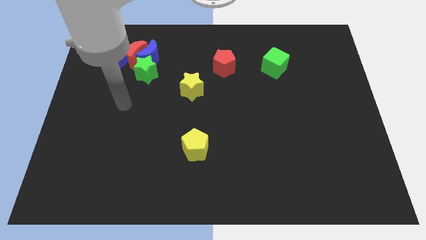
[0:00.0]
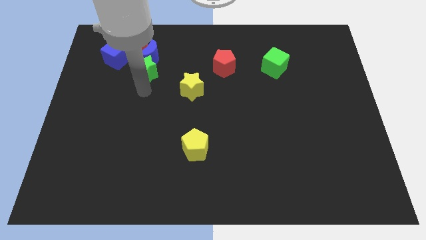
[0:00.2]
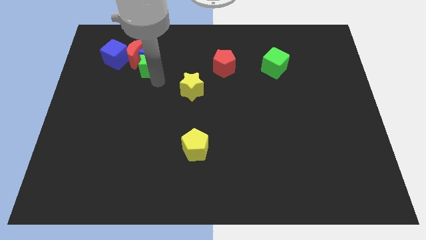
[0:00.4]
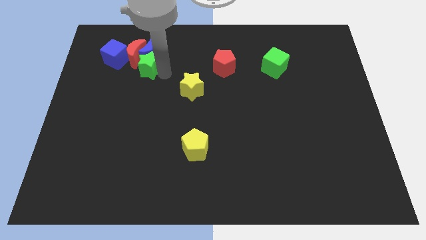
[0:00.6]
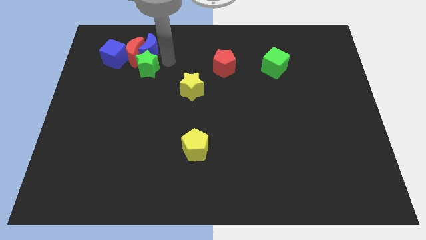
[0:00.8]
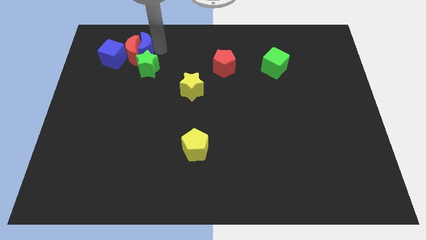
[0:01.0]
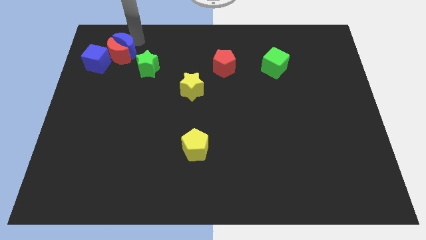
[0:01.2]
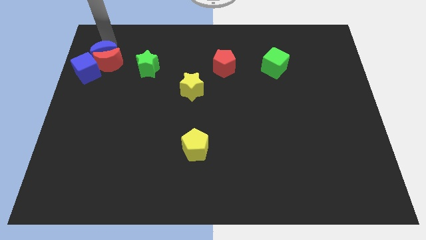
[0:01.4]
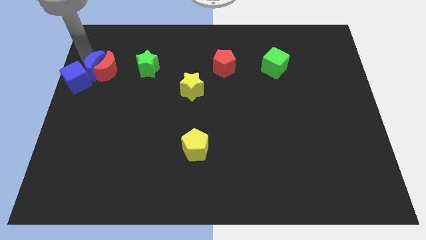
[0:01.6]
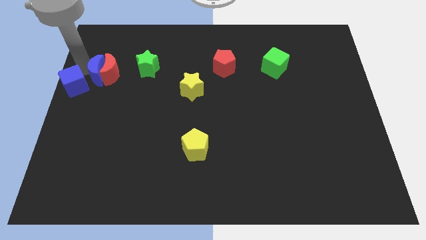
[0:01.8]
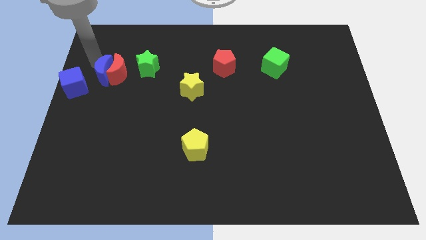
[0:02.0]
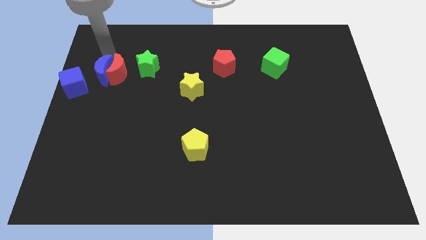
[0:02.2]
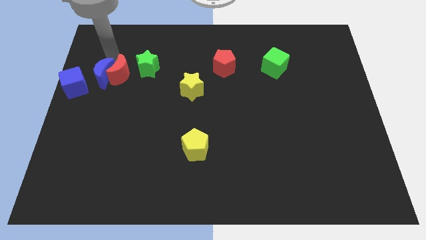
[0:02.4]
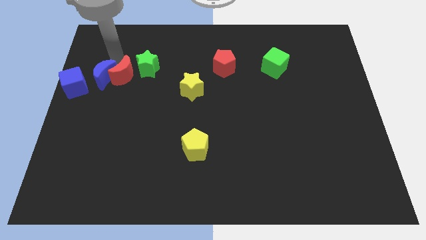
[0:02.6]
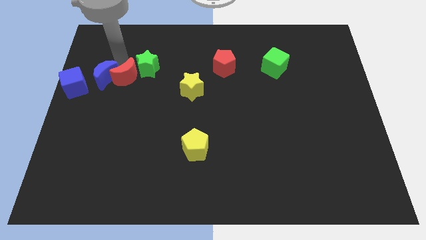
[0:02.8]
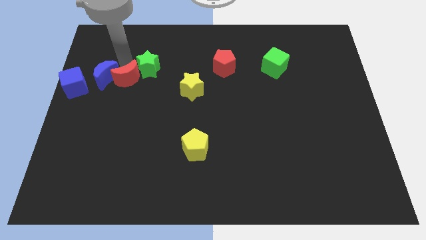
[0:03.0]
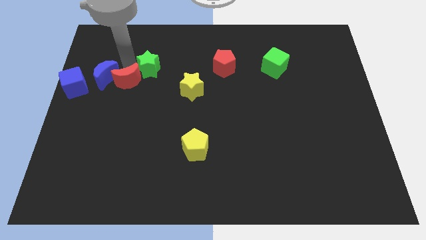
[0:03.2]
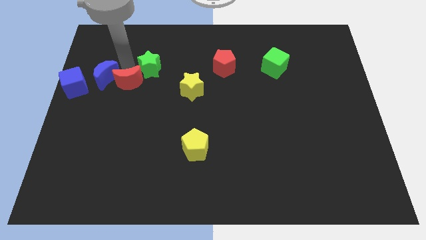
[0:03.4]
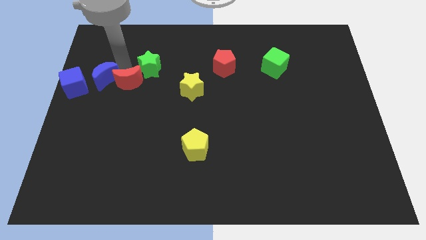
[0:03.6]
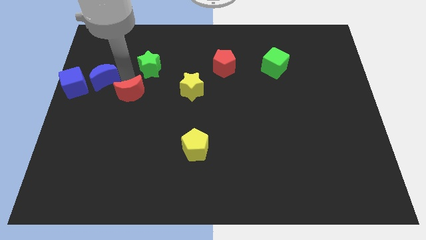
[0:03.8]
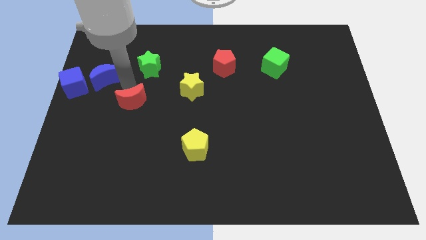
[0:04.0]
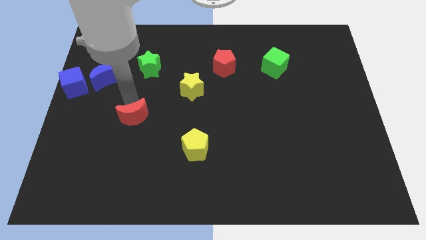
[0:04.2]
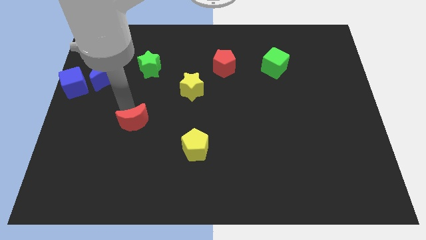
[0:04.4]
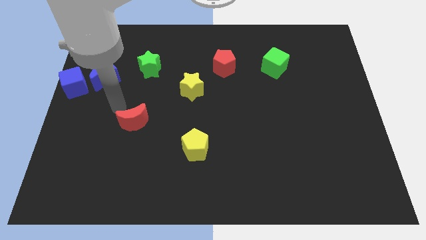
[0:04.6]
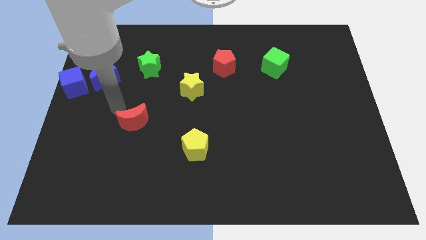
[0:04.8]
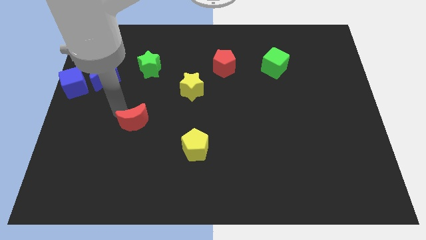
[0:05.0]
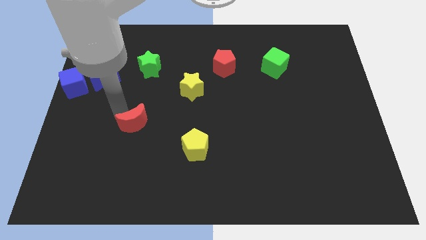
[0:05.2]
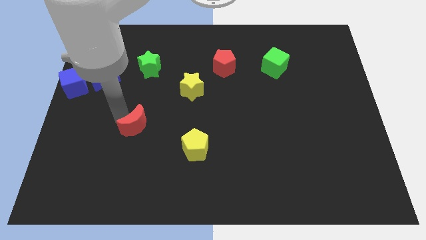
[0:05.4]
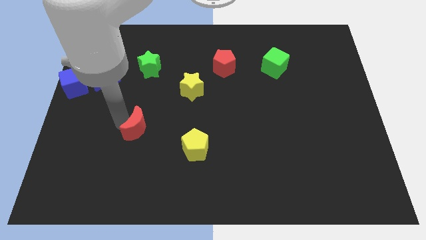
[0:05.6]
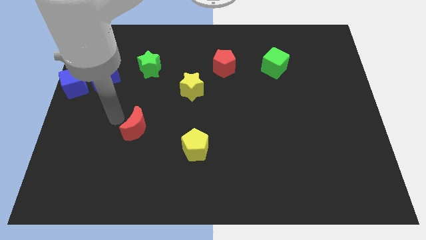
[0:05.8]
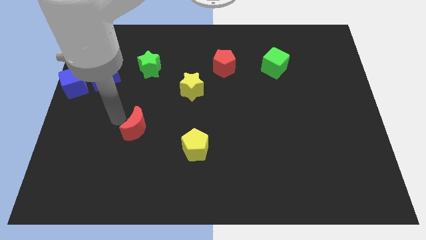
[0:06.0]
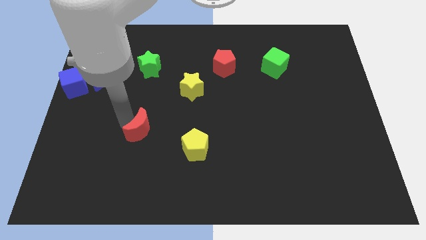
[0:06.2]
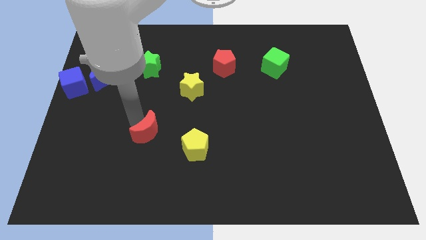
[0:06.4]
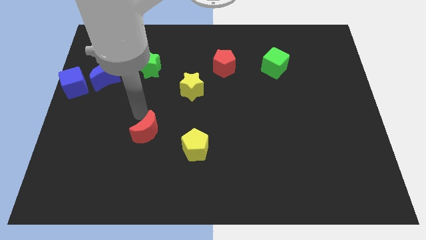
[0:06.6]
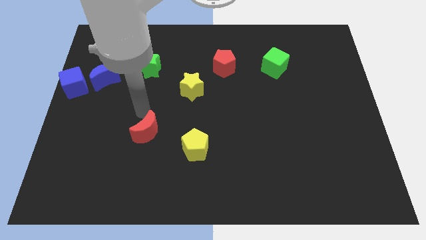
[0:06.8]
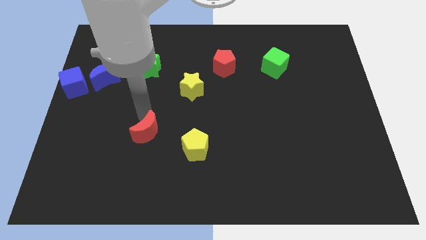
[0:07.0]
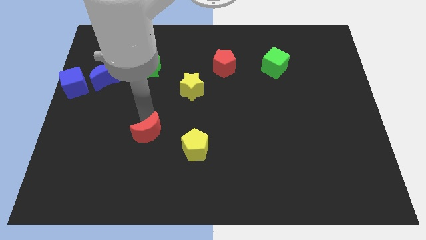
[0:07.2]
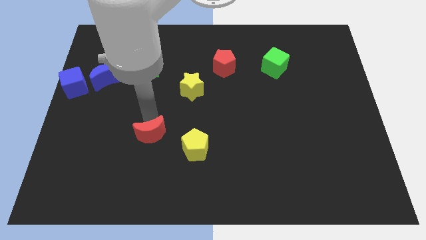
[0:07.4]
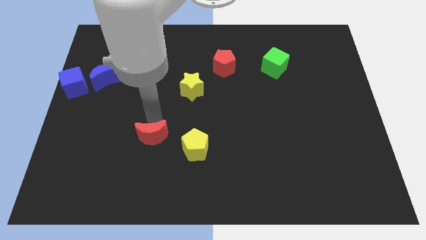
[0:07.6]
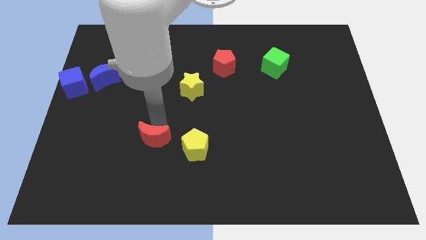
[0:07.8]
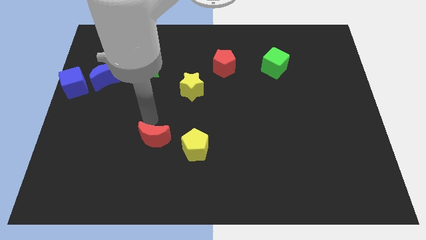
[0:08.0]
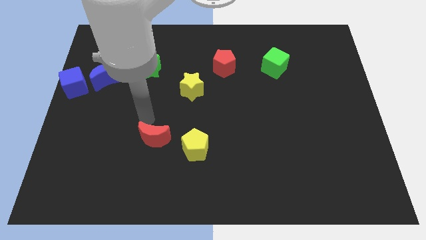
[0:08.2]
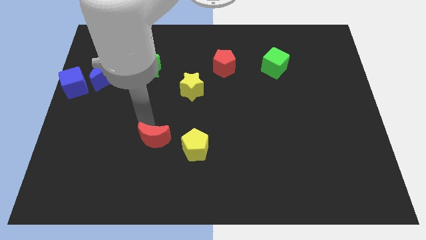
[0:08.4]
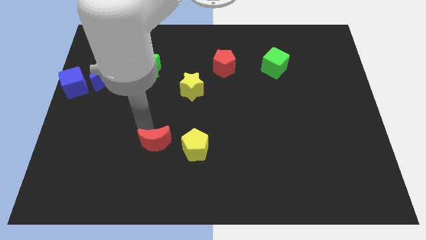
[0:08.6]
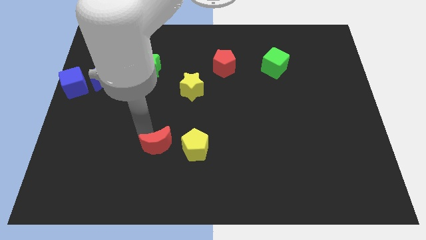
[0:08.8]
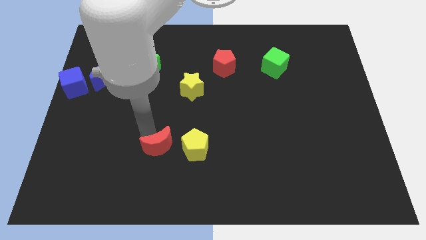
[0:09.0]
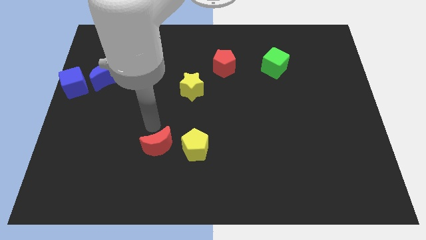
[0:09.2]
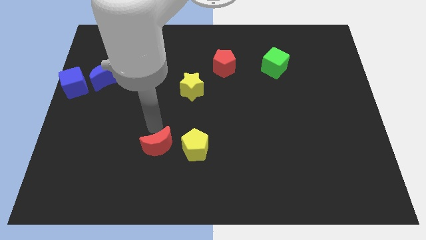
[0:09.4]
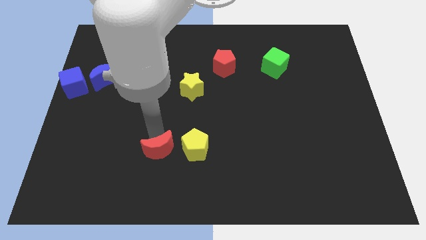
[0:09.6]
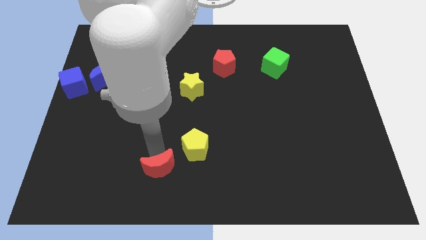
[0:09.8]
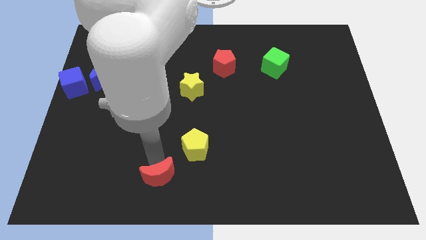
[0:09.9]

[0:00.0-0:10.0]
push the red moon to the bottom side

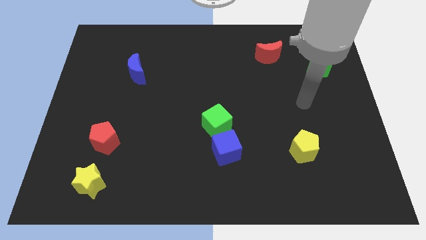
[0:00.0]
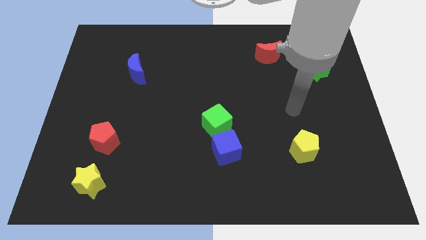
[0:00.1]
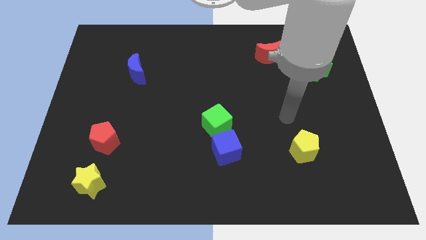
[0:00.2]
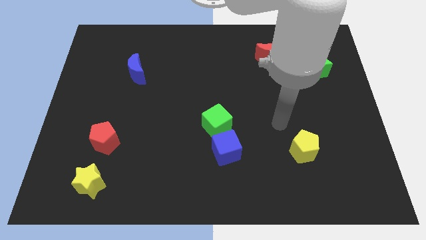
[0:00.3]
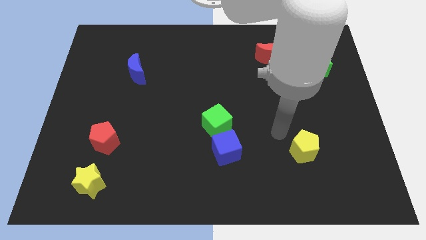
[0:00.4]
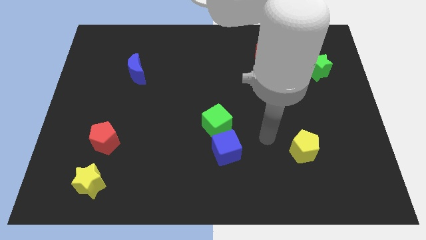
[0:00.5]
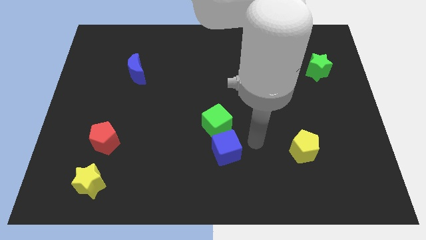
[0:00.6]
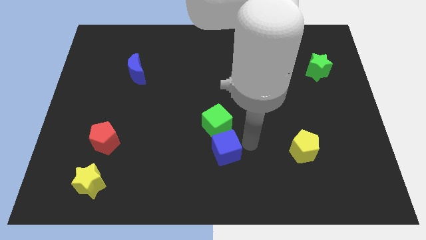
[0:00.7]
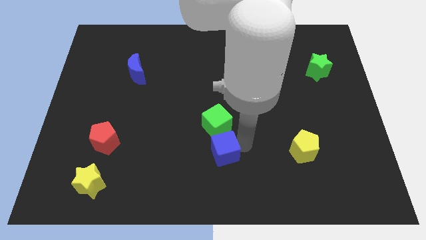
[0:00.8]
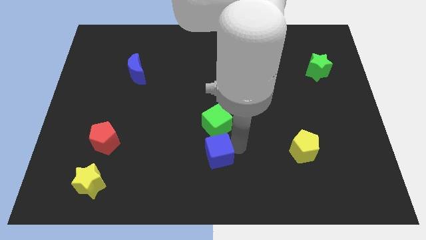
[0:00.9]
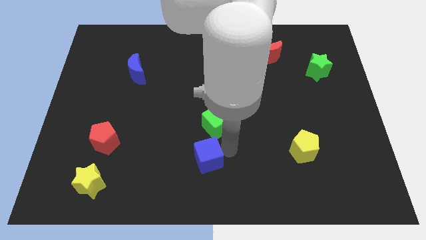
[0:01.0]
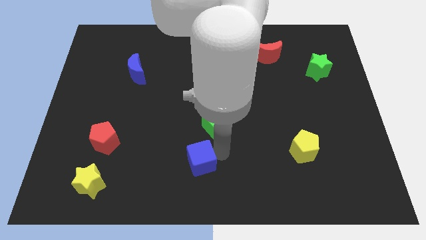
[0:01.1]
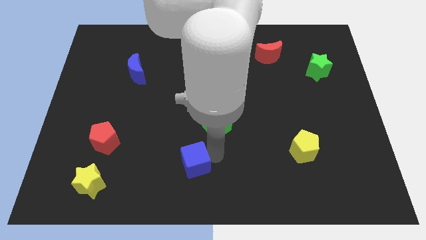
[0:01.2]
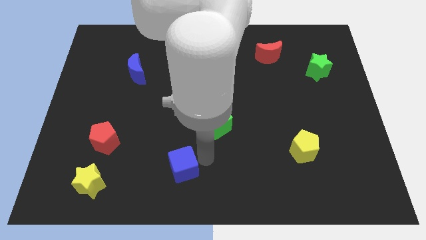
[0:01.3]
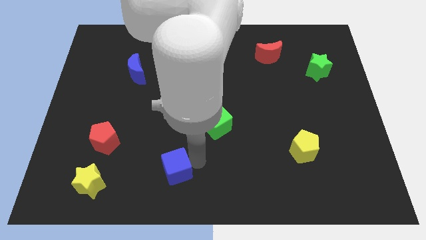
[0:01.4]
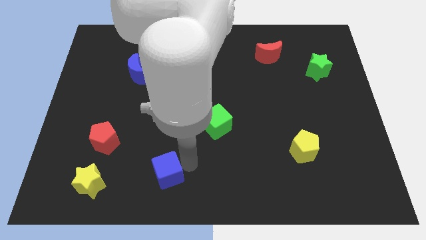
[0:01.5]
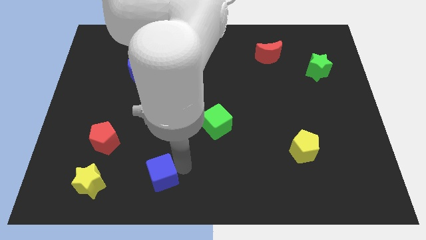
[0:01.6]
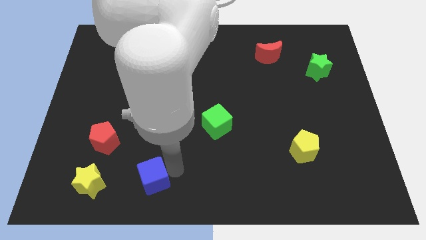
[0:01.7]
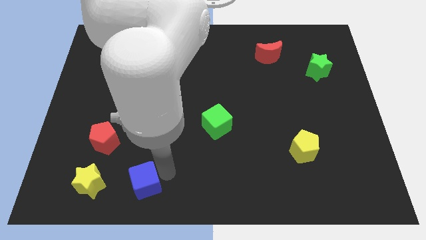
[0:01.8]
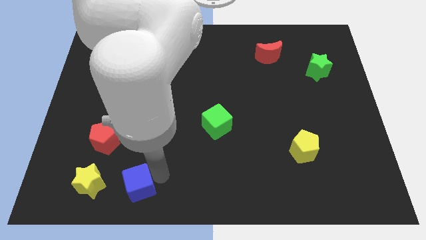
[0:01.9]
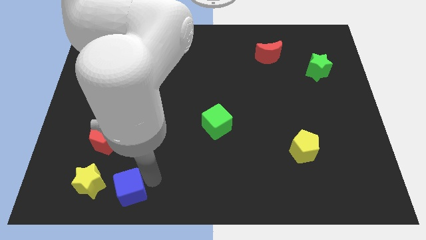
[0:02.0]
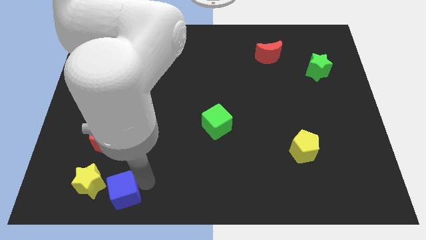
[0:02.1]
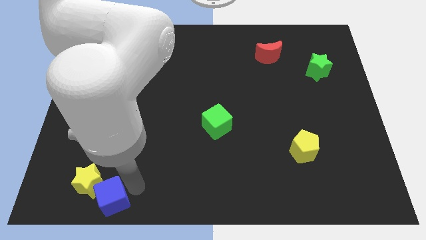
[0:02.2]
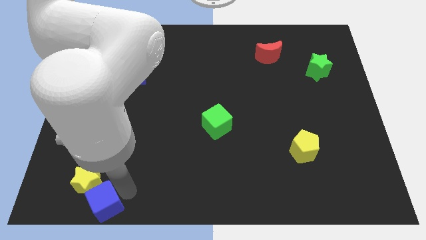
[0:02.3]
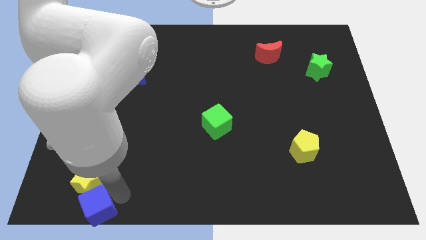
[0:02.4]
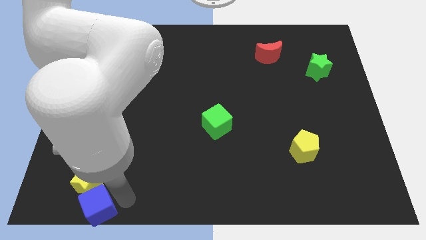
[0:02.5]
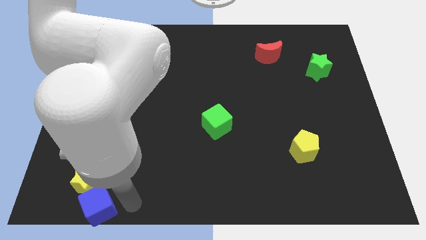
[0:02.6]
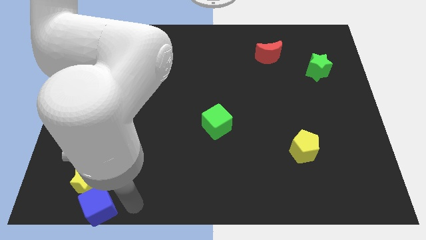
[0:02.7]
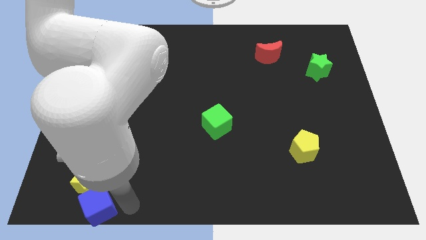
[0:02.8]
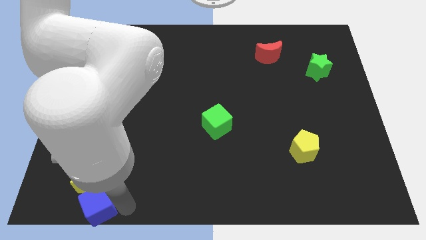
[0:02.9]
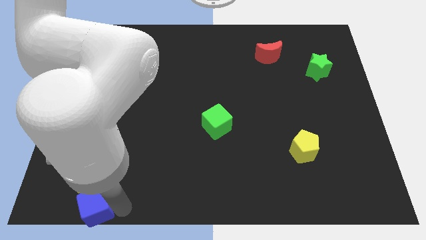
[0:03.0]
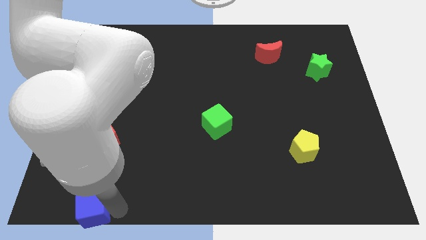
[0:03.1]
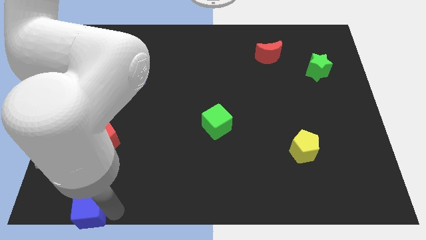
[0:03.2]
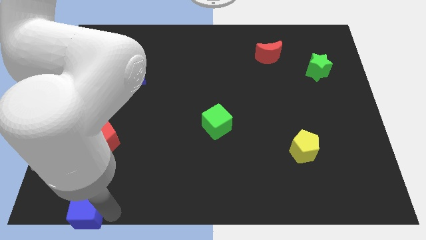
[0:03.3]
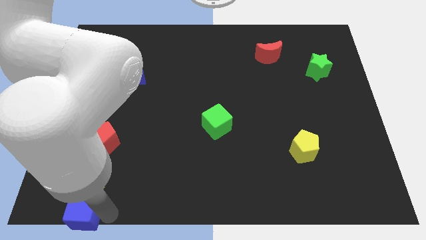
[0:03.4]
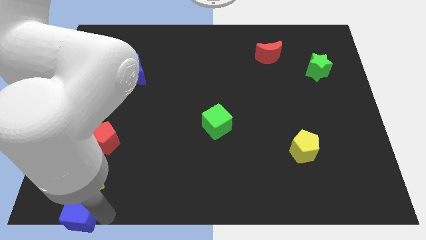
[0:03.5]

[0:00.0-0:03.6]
move the blue cube to the bottom left corner
